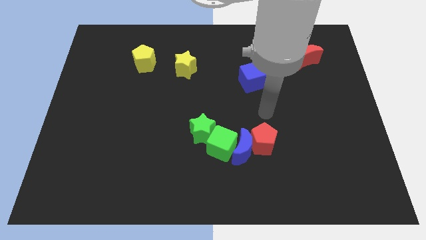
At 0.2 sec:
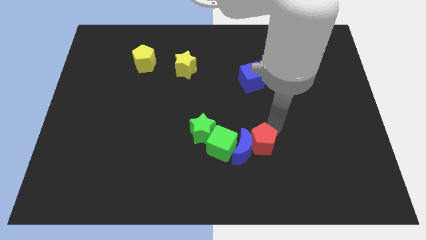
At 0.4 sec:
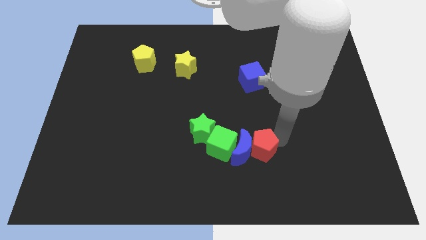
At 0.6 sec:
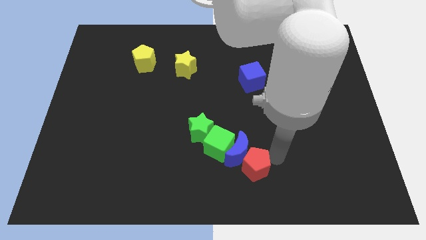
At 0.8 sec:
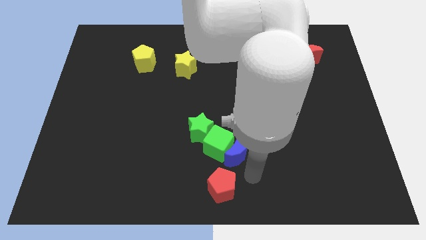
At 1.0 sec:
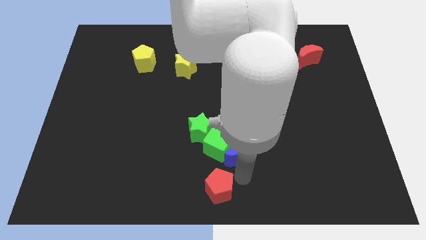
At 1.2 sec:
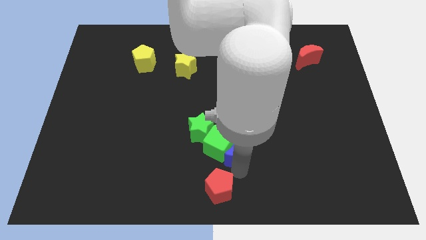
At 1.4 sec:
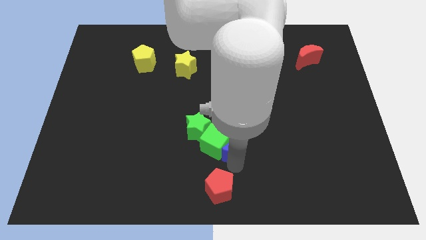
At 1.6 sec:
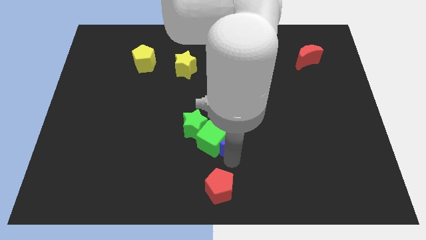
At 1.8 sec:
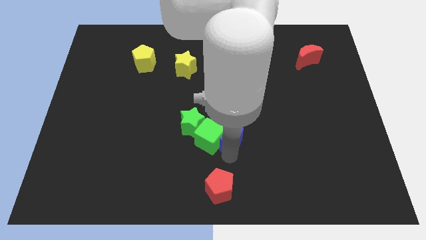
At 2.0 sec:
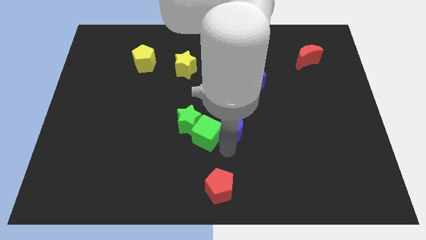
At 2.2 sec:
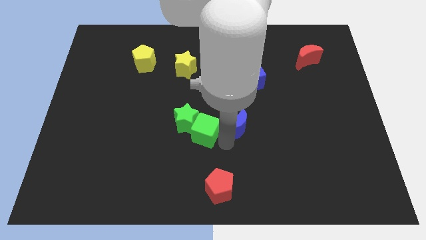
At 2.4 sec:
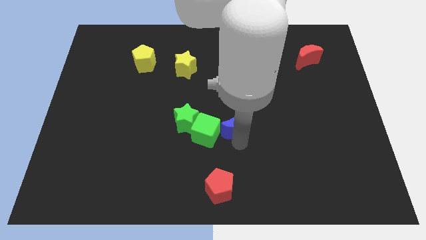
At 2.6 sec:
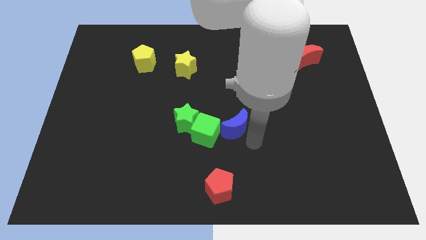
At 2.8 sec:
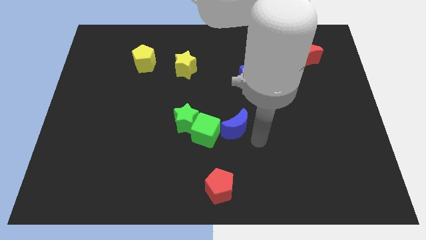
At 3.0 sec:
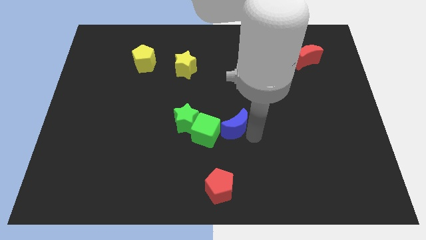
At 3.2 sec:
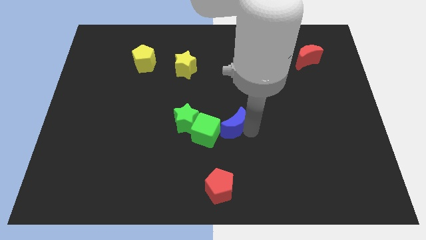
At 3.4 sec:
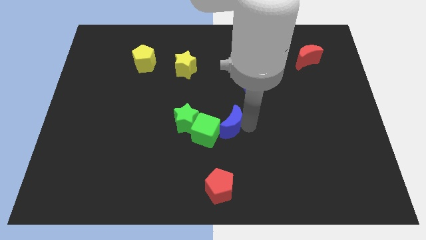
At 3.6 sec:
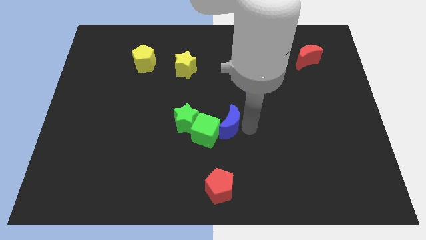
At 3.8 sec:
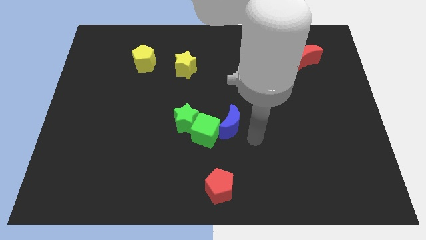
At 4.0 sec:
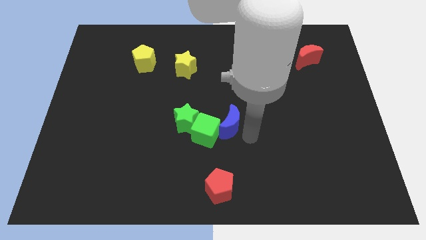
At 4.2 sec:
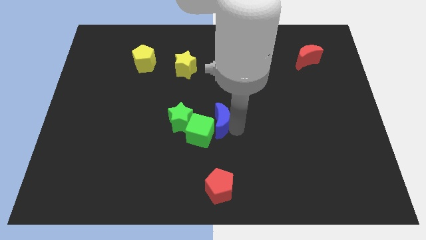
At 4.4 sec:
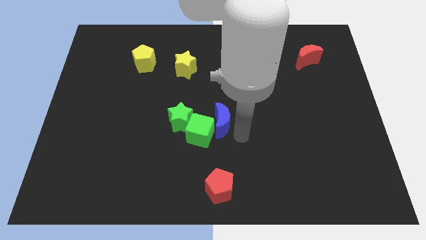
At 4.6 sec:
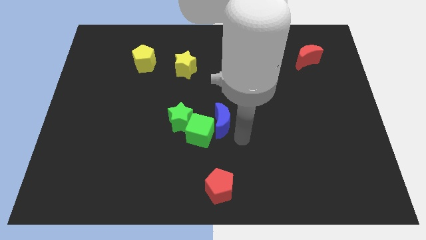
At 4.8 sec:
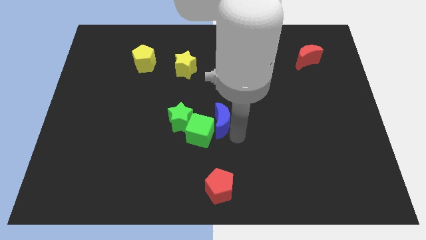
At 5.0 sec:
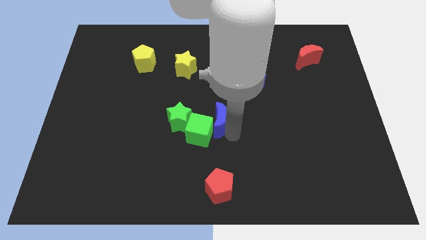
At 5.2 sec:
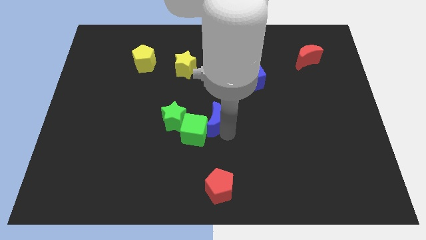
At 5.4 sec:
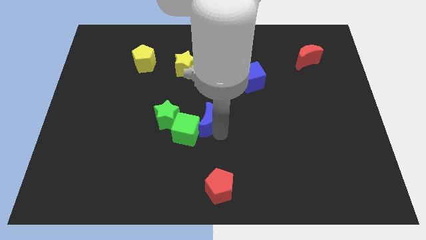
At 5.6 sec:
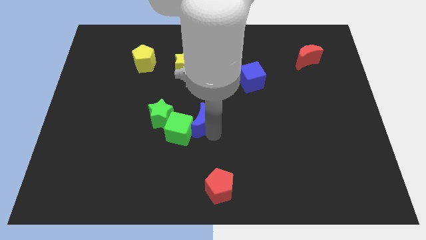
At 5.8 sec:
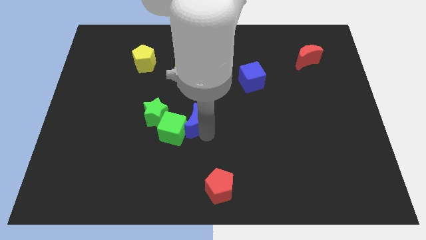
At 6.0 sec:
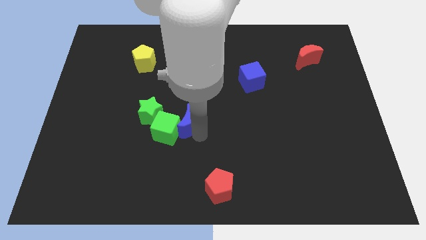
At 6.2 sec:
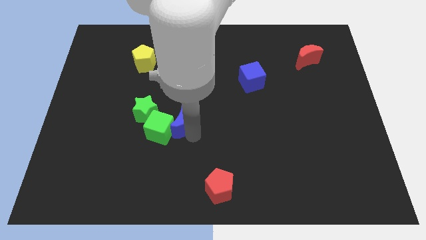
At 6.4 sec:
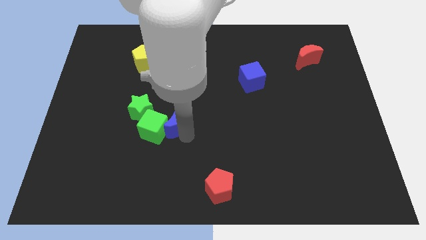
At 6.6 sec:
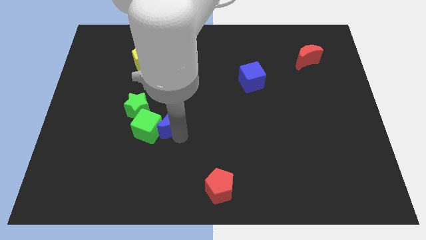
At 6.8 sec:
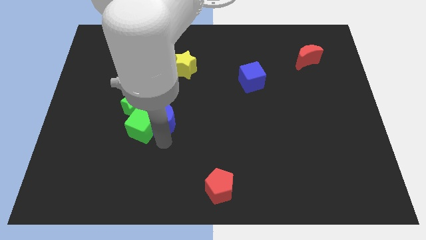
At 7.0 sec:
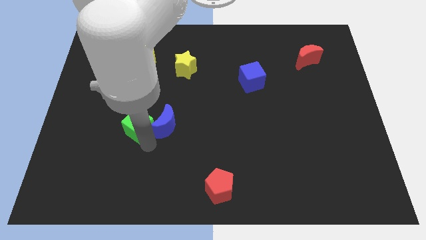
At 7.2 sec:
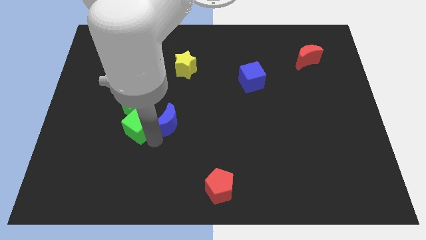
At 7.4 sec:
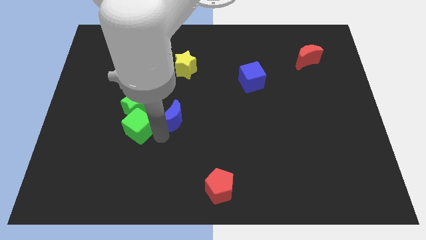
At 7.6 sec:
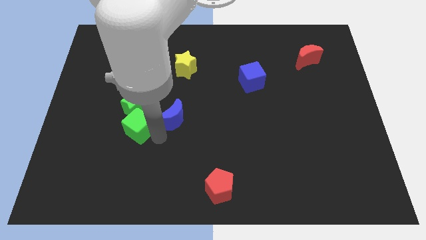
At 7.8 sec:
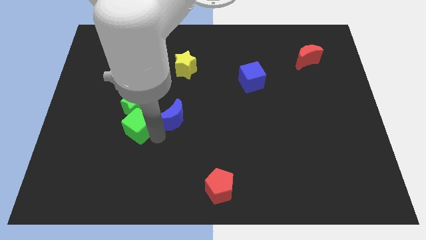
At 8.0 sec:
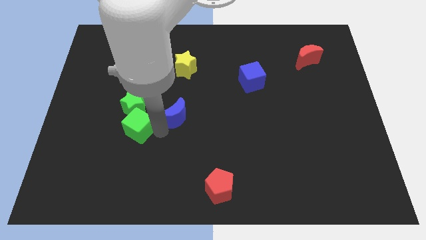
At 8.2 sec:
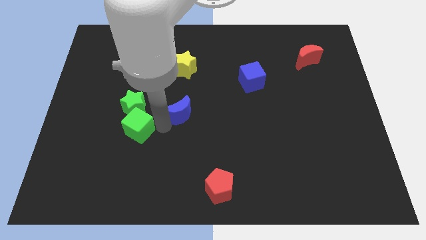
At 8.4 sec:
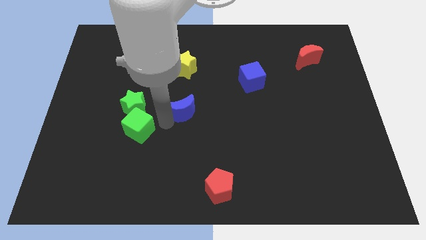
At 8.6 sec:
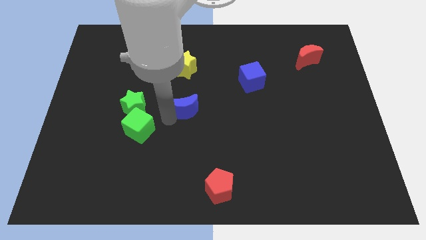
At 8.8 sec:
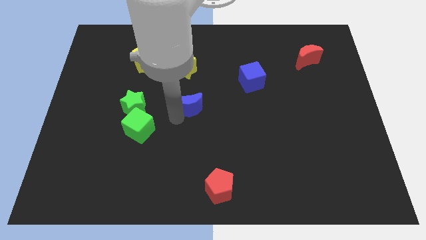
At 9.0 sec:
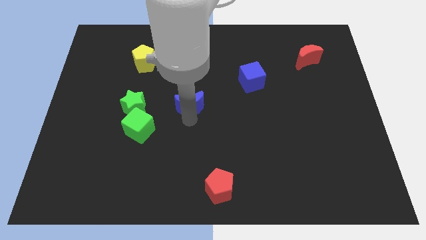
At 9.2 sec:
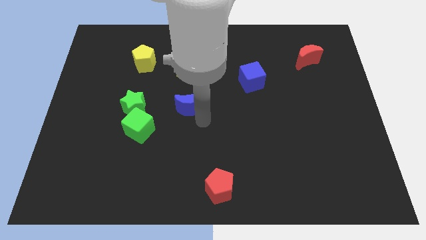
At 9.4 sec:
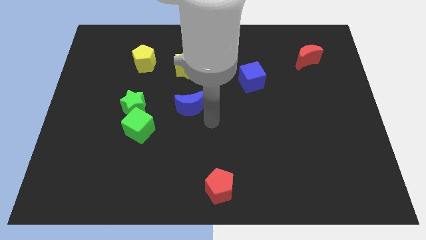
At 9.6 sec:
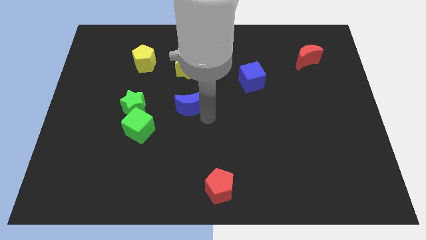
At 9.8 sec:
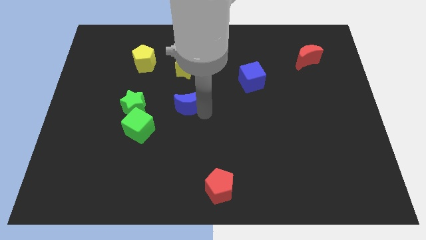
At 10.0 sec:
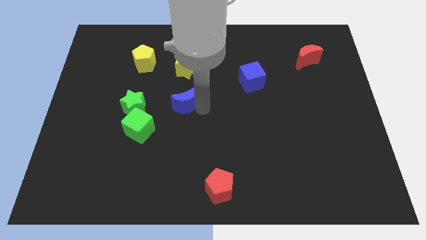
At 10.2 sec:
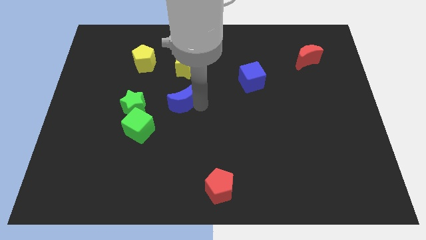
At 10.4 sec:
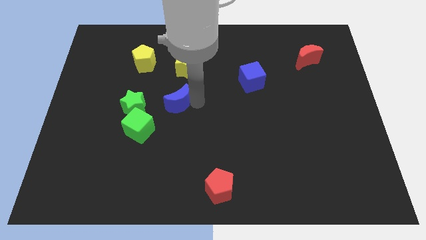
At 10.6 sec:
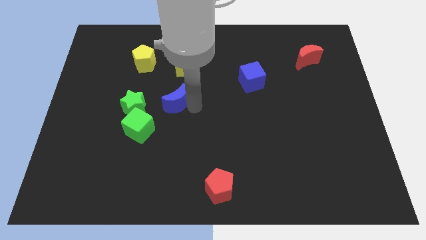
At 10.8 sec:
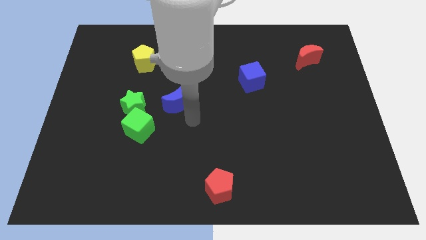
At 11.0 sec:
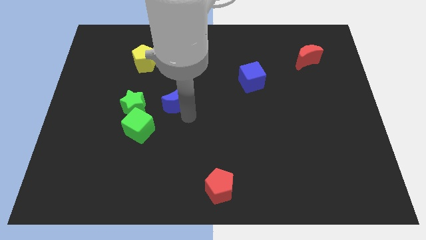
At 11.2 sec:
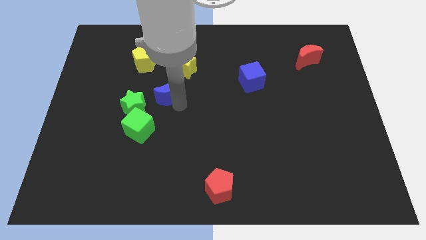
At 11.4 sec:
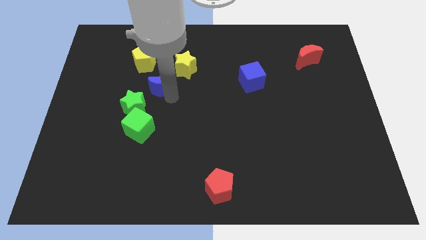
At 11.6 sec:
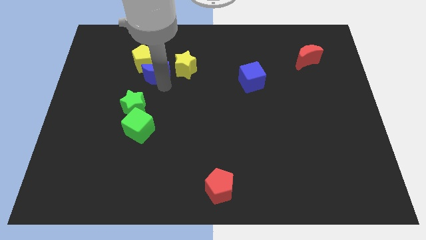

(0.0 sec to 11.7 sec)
put the blue moon close to the yellow pentagon

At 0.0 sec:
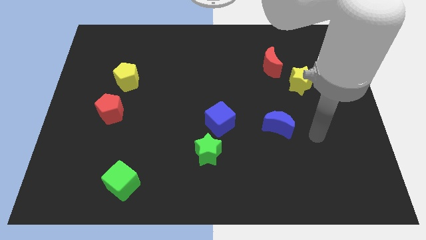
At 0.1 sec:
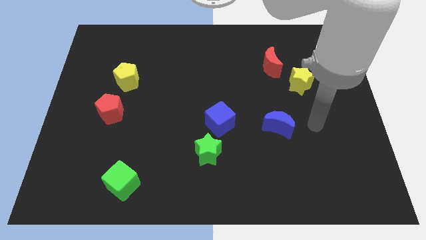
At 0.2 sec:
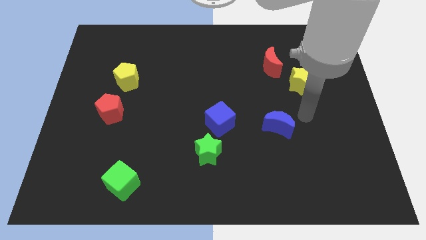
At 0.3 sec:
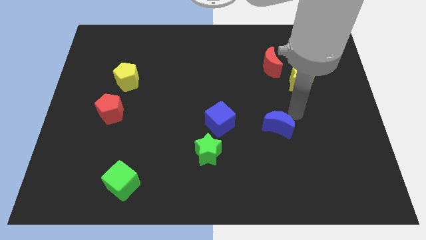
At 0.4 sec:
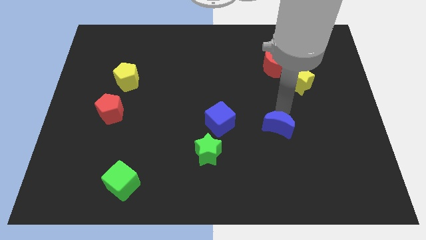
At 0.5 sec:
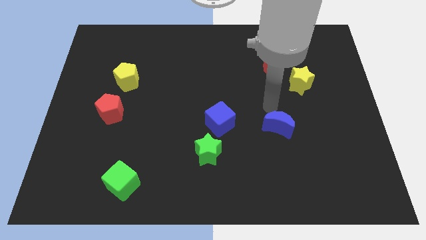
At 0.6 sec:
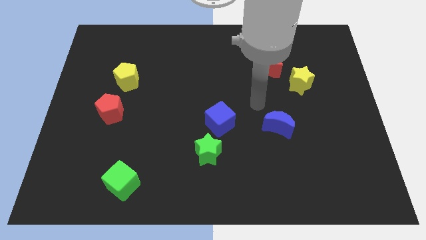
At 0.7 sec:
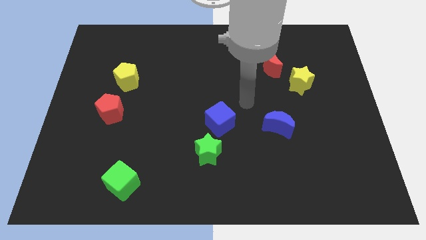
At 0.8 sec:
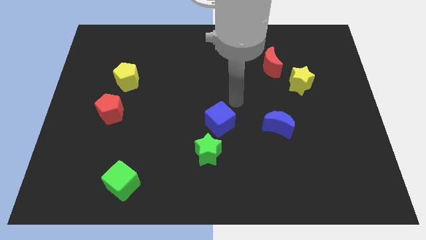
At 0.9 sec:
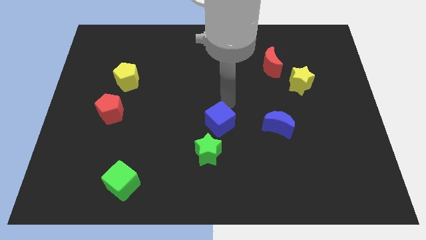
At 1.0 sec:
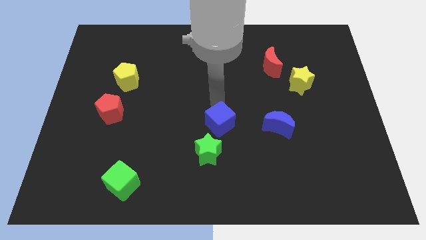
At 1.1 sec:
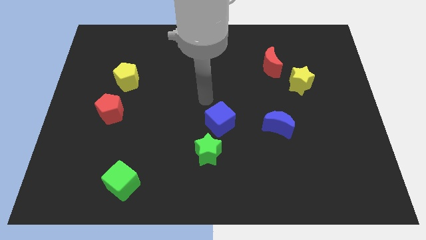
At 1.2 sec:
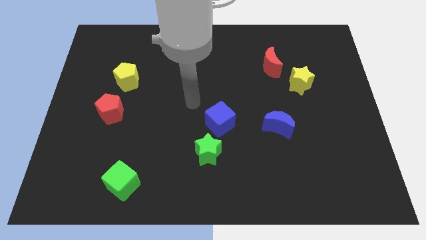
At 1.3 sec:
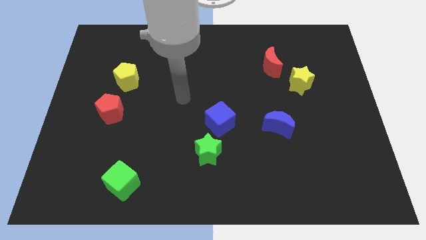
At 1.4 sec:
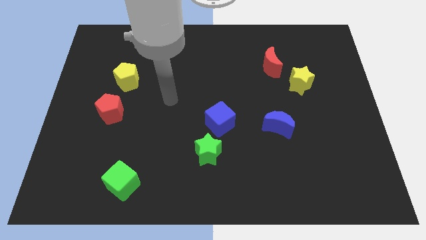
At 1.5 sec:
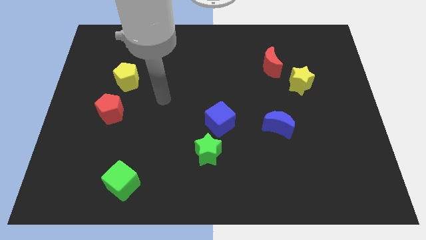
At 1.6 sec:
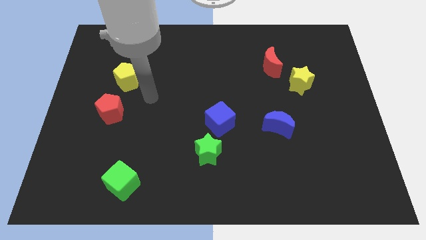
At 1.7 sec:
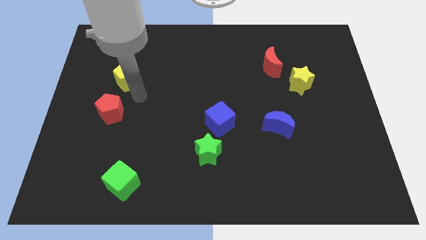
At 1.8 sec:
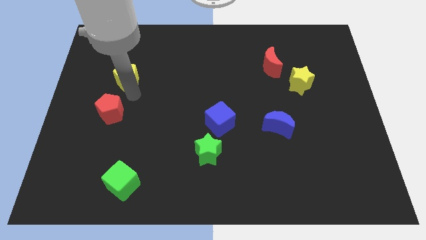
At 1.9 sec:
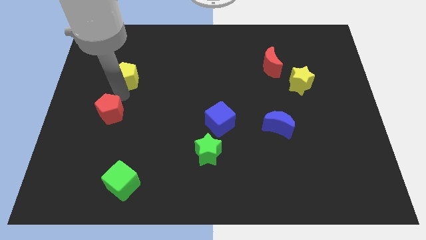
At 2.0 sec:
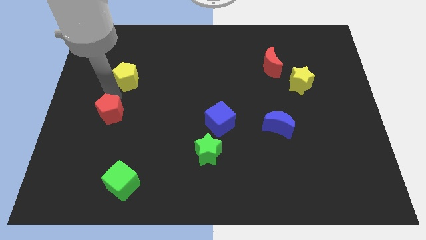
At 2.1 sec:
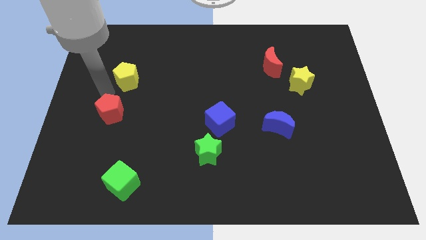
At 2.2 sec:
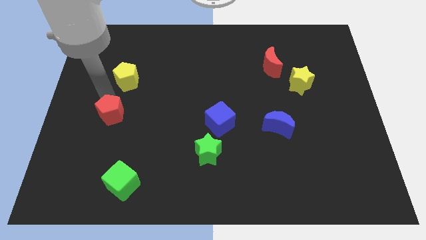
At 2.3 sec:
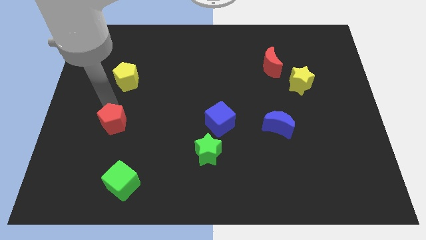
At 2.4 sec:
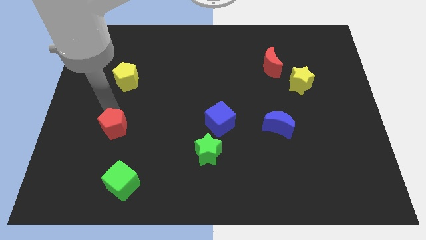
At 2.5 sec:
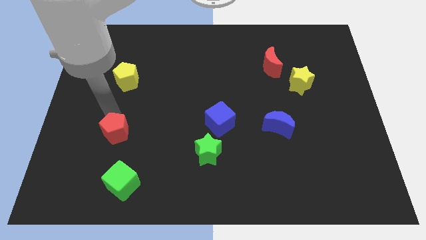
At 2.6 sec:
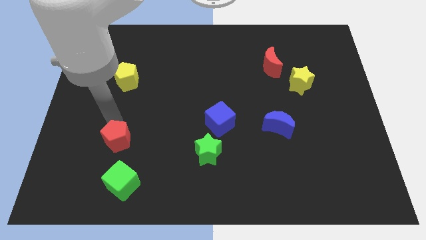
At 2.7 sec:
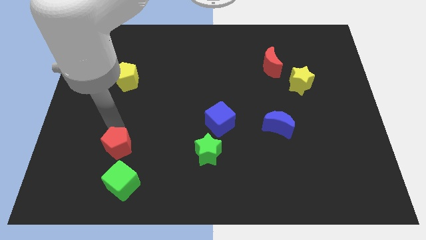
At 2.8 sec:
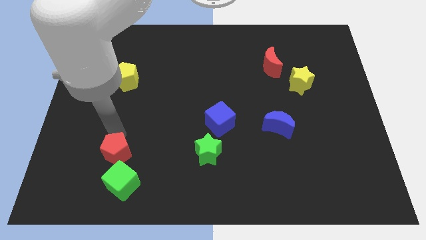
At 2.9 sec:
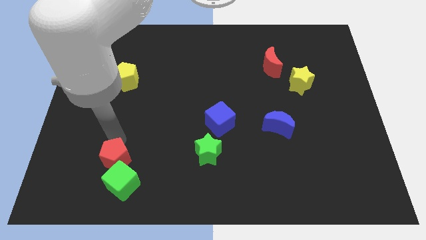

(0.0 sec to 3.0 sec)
push the red pentagon to the green cube
